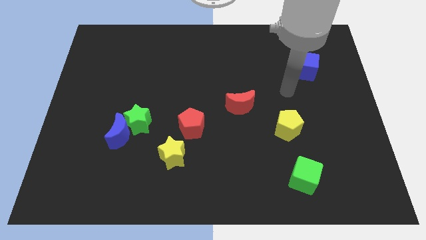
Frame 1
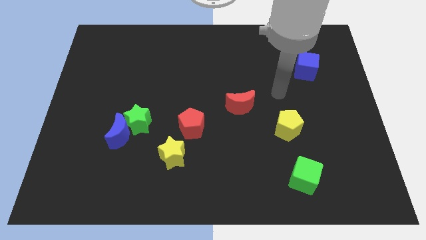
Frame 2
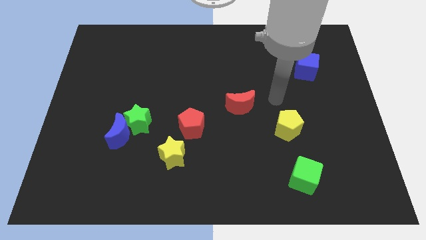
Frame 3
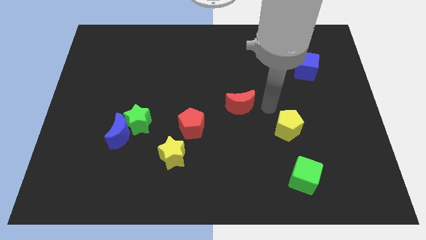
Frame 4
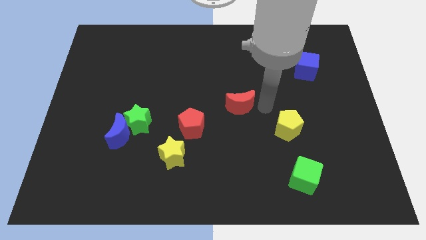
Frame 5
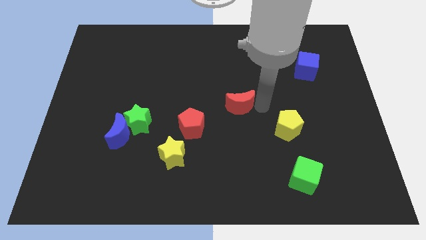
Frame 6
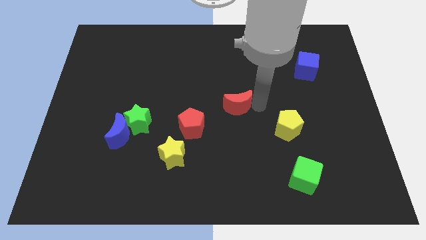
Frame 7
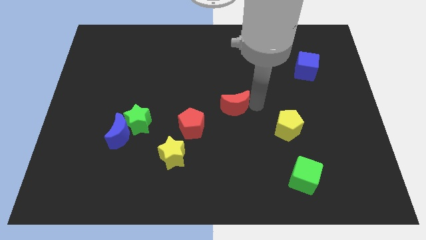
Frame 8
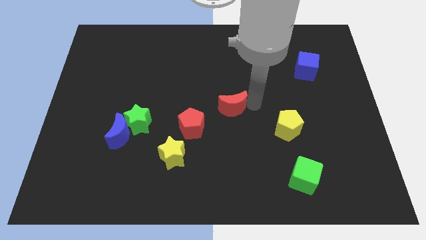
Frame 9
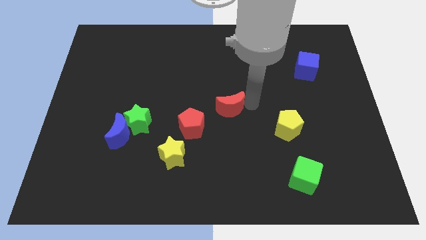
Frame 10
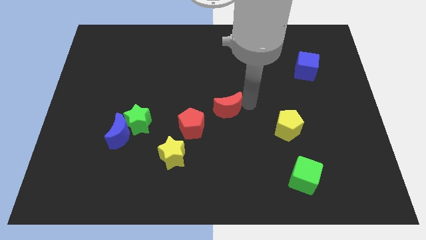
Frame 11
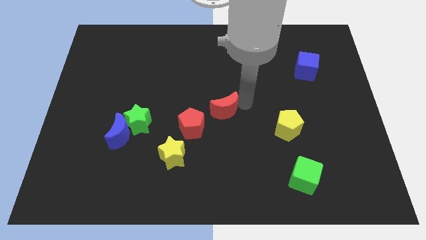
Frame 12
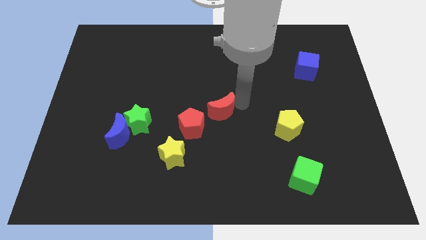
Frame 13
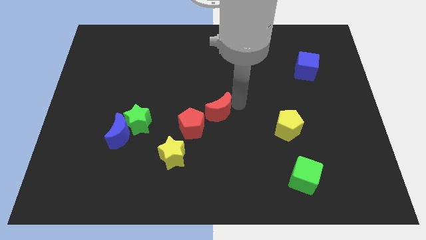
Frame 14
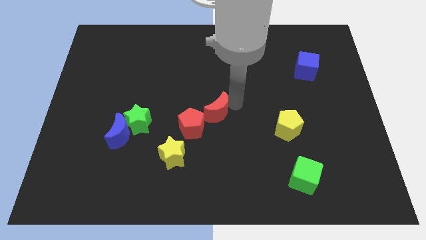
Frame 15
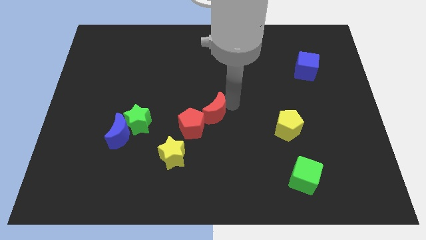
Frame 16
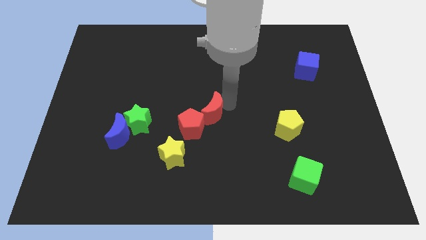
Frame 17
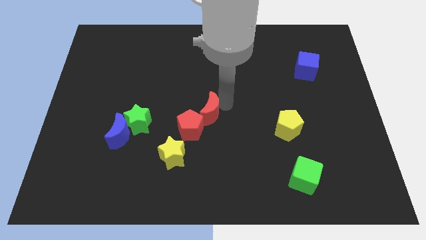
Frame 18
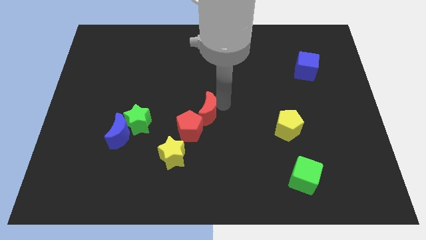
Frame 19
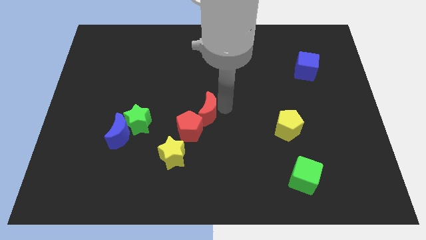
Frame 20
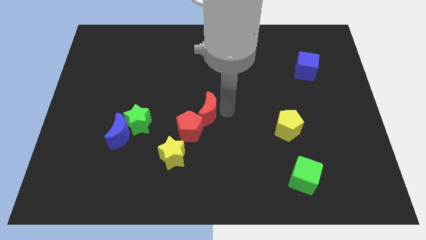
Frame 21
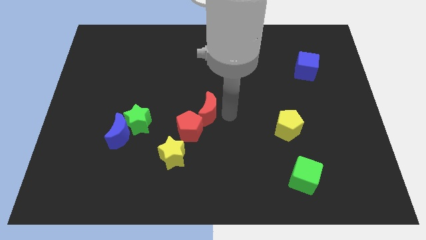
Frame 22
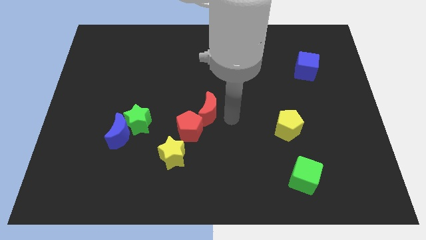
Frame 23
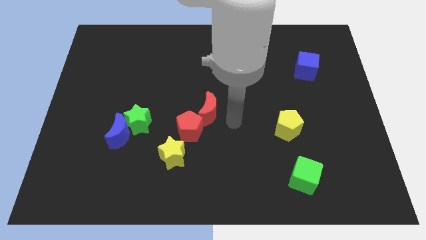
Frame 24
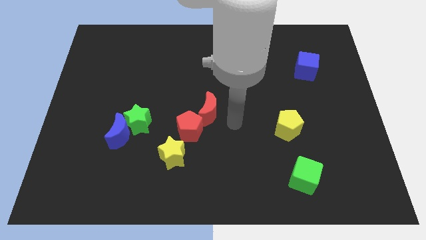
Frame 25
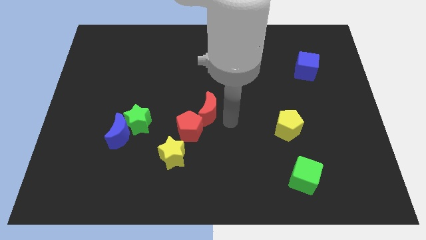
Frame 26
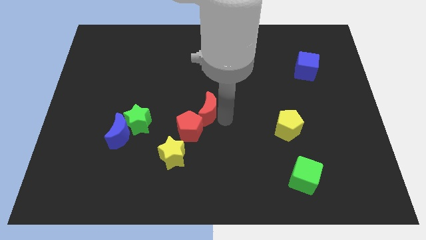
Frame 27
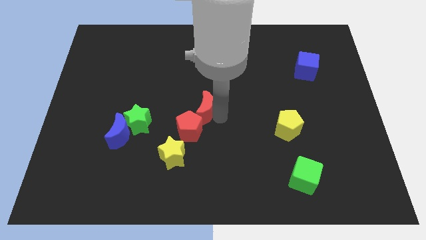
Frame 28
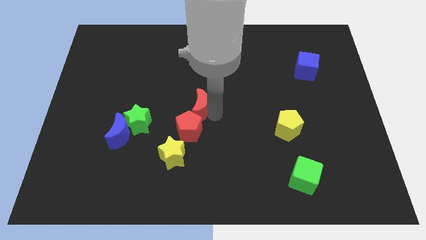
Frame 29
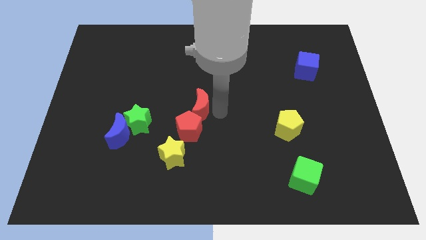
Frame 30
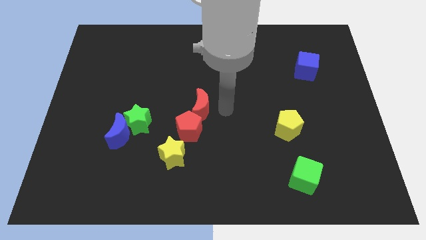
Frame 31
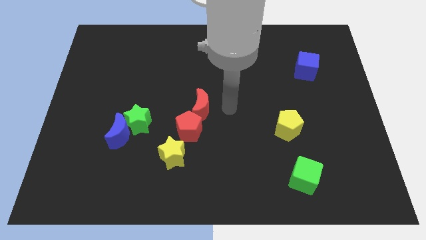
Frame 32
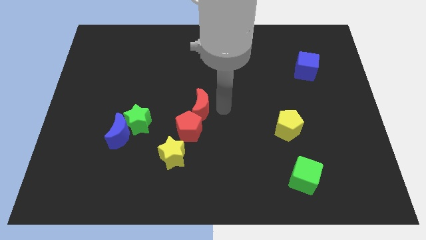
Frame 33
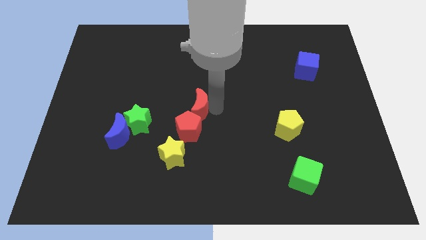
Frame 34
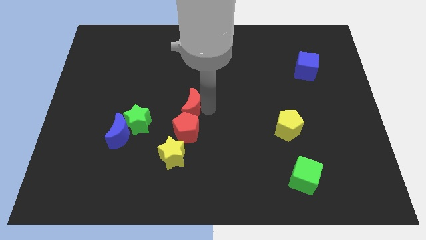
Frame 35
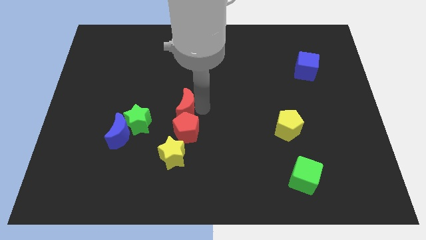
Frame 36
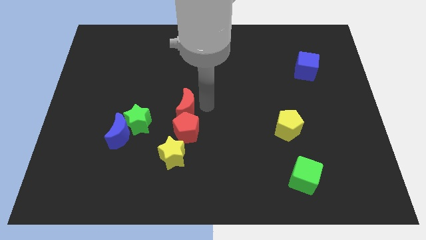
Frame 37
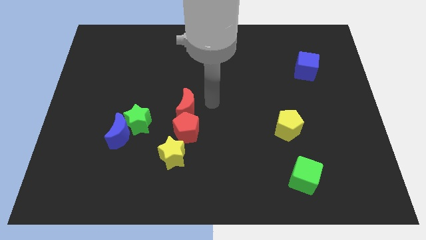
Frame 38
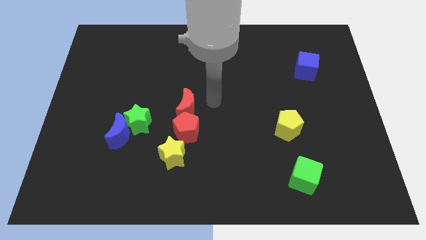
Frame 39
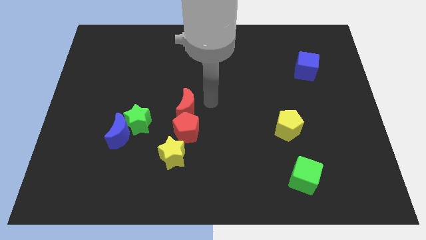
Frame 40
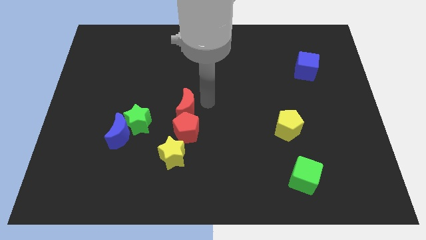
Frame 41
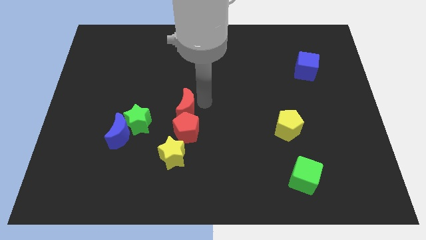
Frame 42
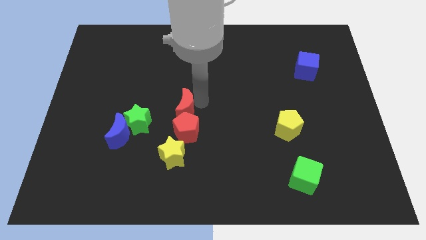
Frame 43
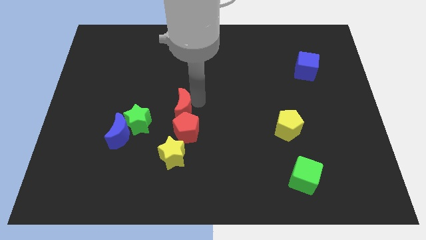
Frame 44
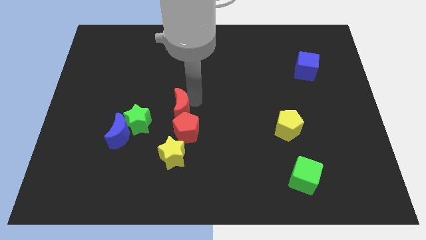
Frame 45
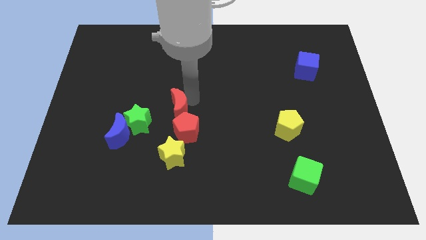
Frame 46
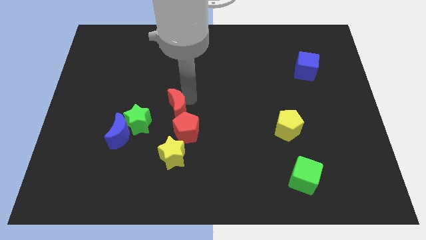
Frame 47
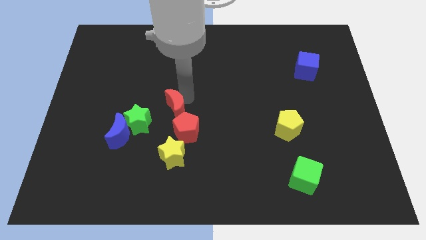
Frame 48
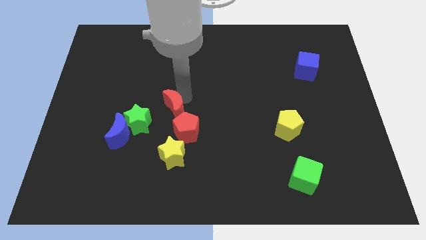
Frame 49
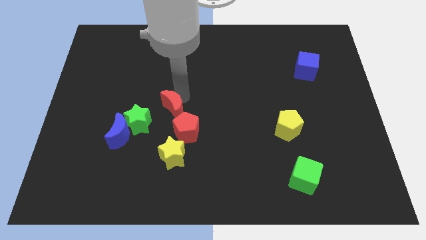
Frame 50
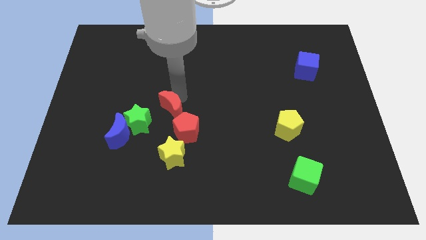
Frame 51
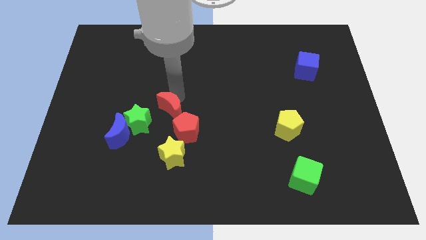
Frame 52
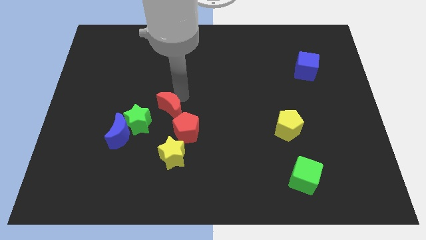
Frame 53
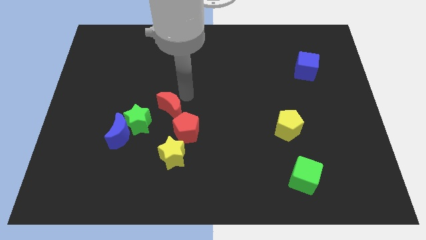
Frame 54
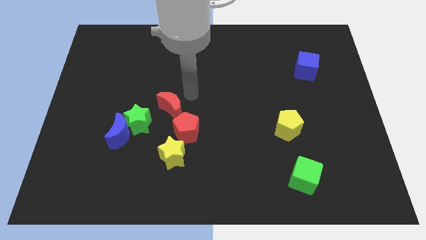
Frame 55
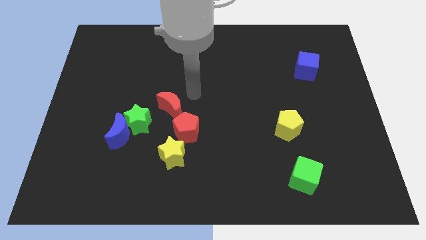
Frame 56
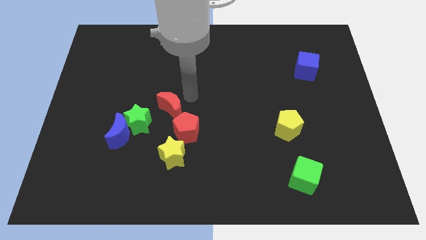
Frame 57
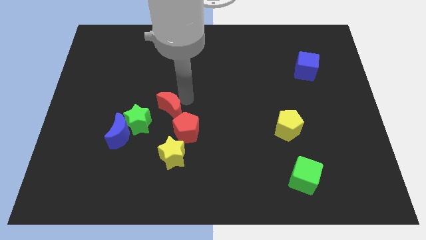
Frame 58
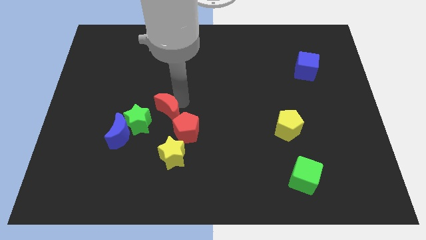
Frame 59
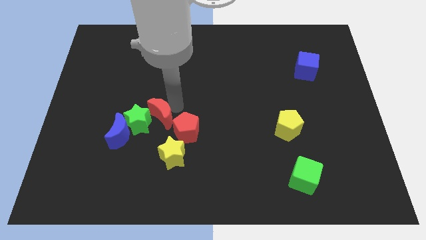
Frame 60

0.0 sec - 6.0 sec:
move the red moon to the green star

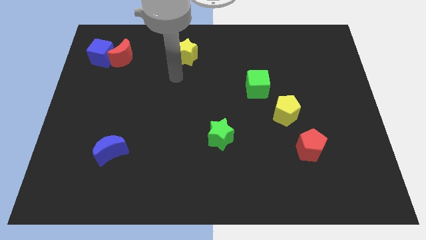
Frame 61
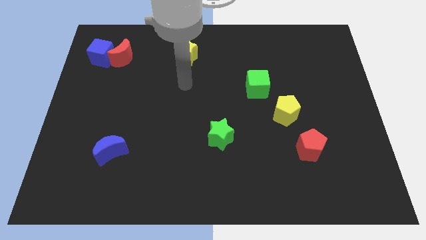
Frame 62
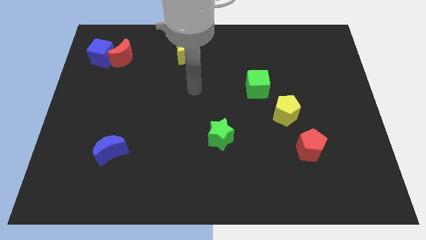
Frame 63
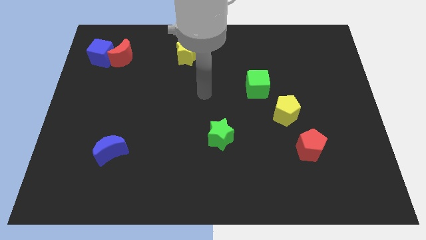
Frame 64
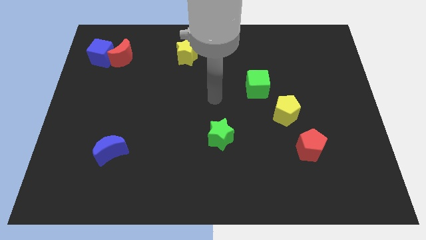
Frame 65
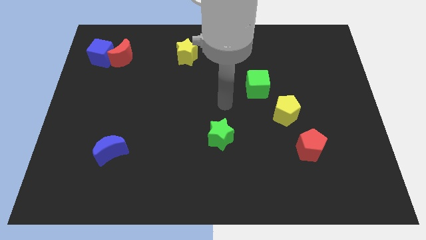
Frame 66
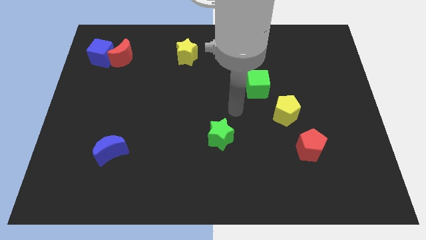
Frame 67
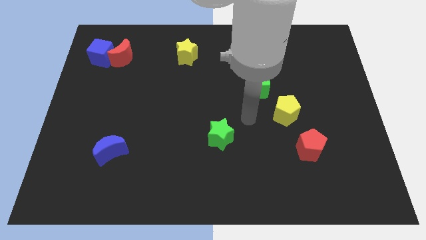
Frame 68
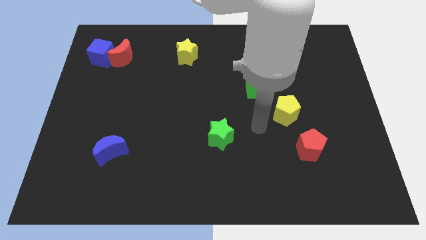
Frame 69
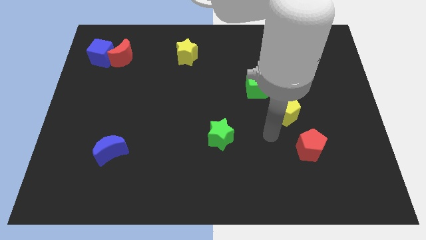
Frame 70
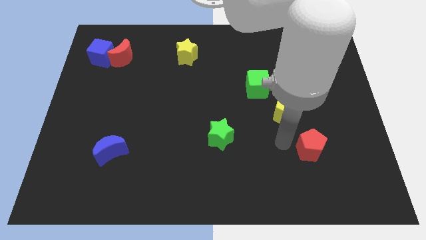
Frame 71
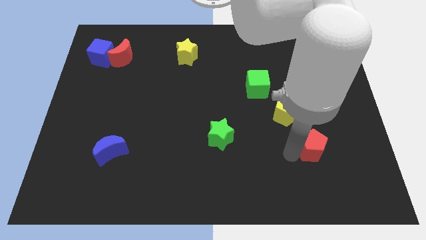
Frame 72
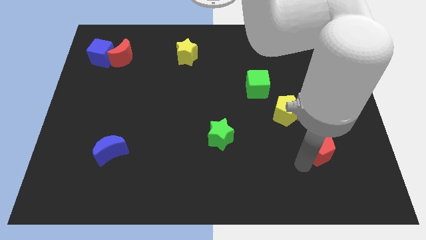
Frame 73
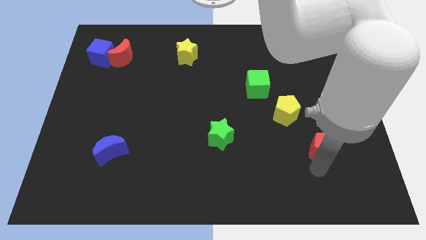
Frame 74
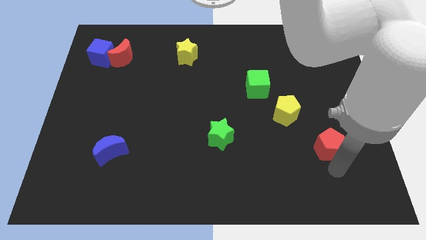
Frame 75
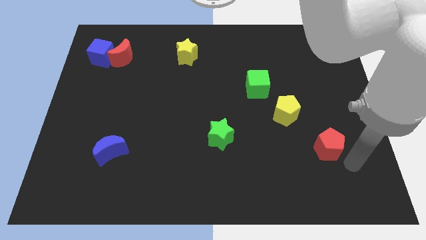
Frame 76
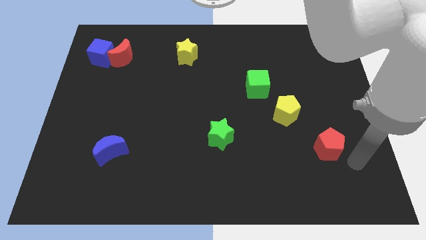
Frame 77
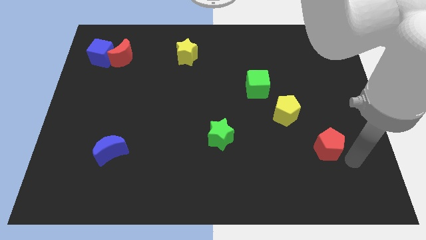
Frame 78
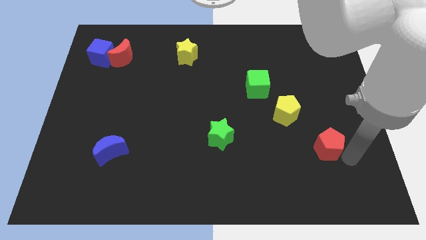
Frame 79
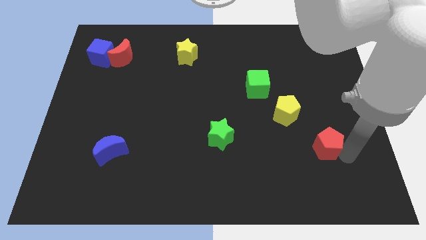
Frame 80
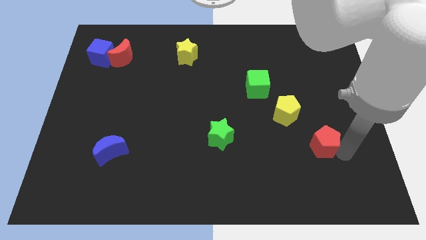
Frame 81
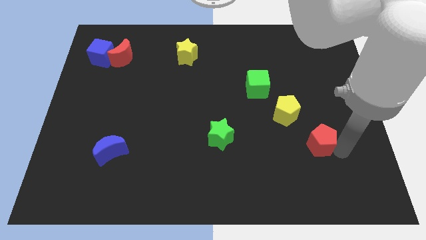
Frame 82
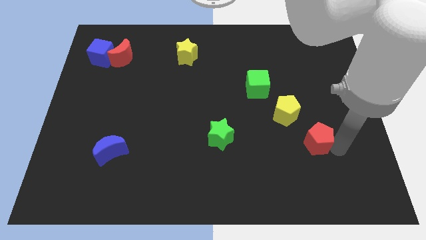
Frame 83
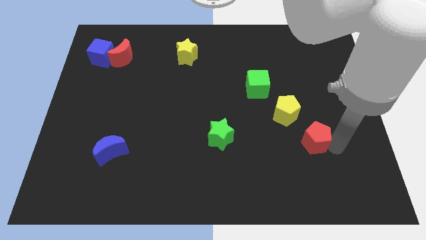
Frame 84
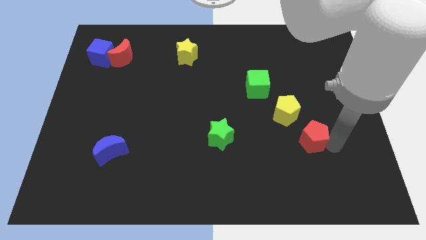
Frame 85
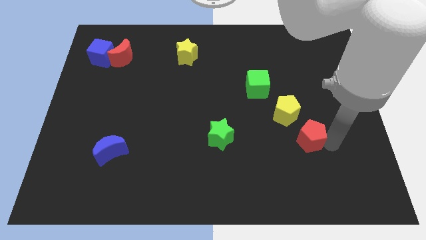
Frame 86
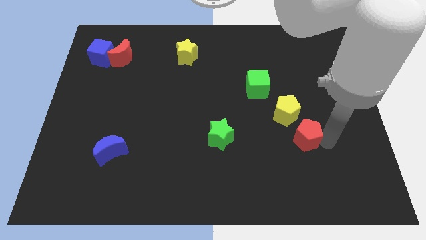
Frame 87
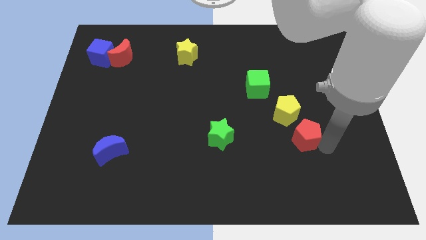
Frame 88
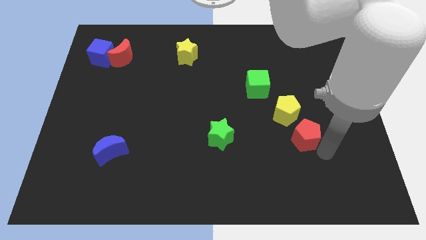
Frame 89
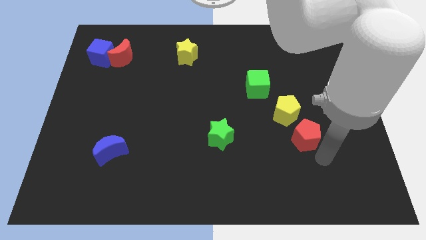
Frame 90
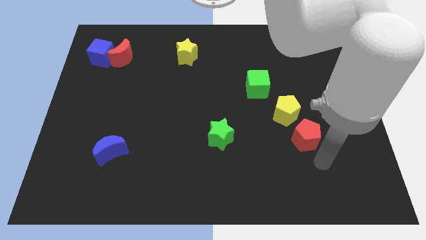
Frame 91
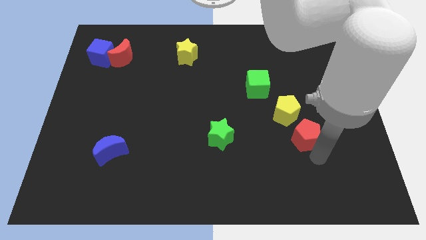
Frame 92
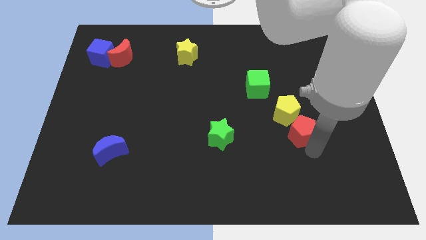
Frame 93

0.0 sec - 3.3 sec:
move the red pentagon towards the yellow pentagon
